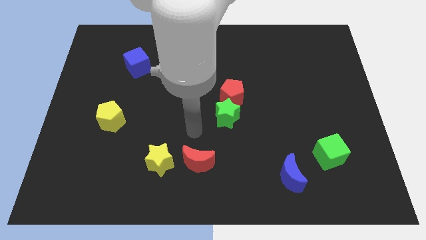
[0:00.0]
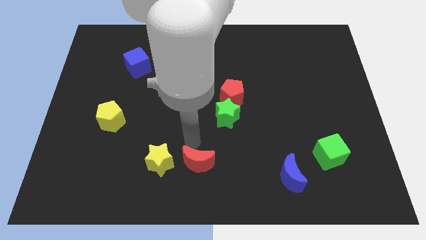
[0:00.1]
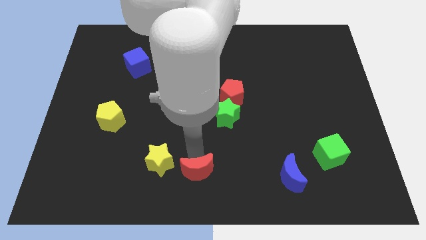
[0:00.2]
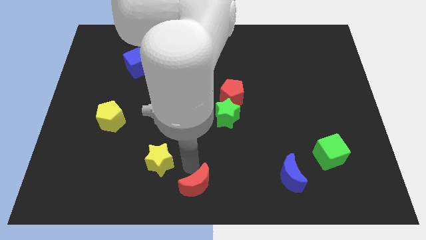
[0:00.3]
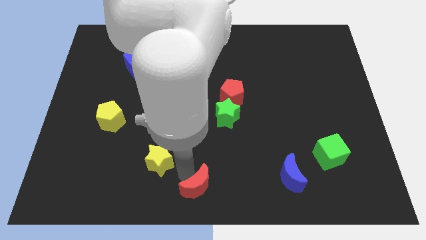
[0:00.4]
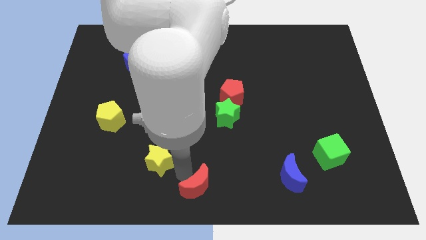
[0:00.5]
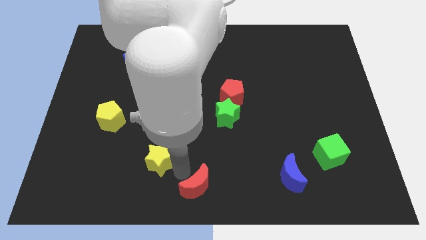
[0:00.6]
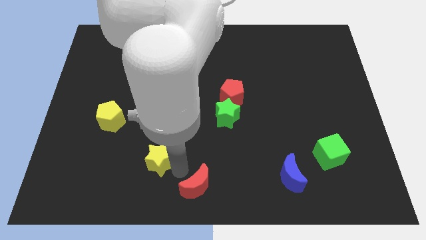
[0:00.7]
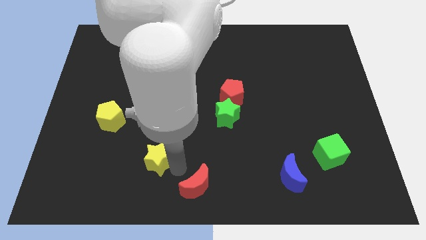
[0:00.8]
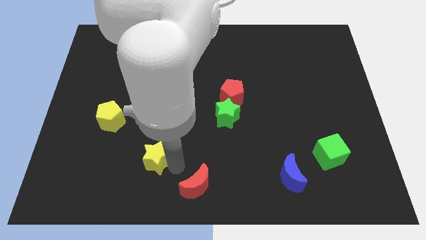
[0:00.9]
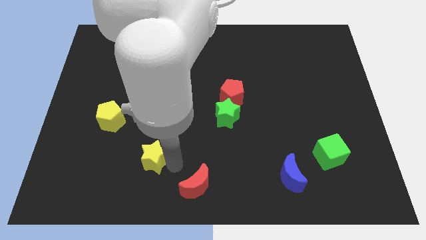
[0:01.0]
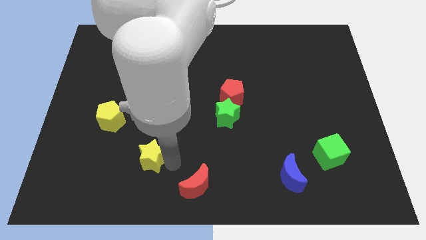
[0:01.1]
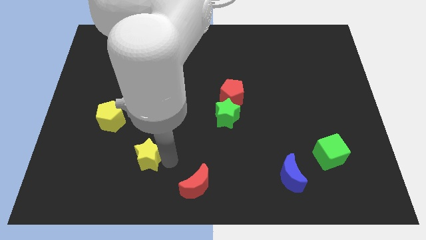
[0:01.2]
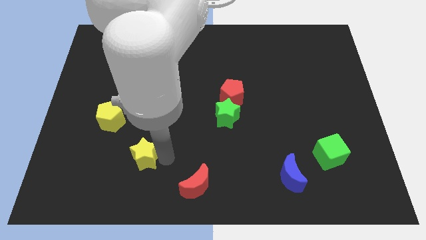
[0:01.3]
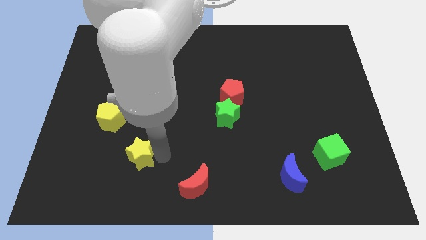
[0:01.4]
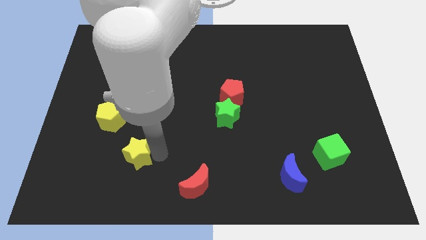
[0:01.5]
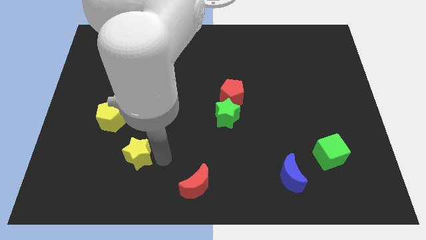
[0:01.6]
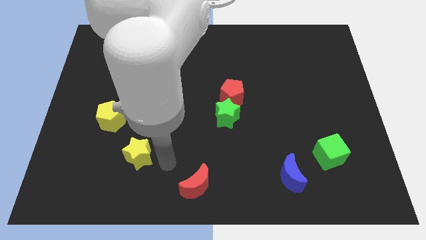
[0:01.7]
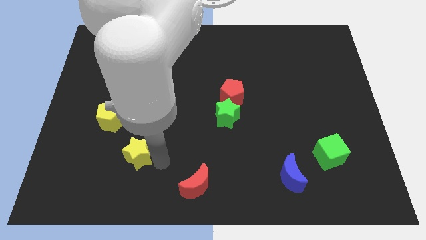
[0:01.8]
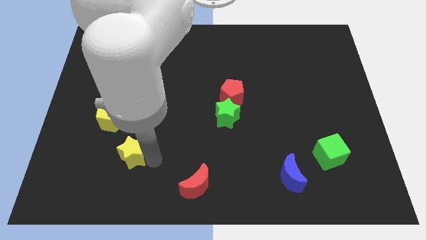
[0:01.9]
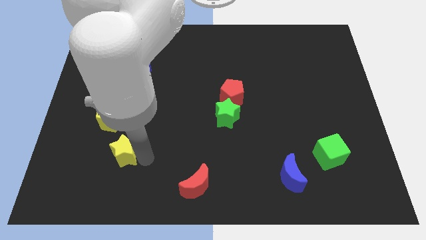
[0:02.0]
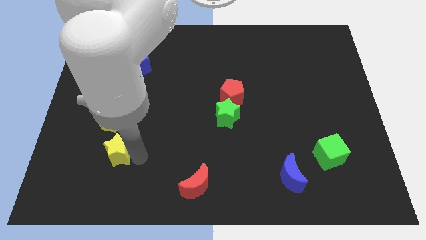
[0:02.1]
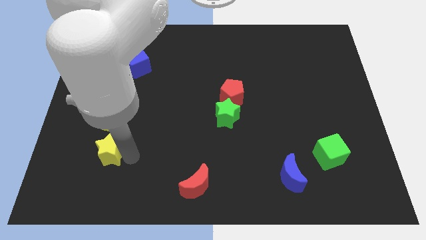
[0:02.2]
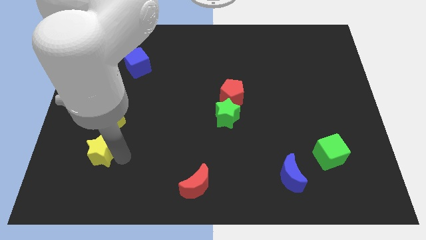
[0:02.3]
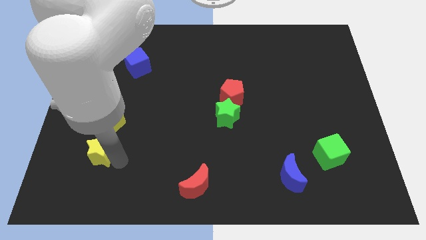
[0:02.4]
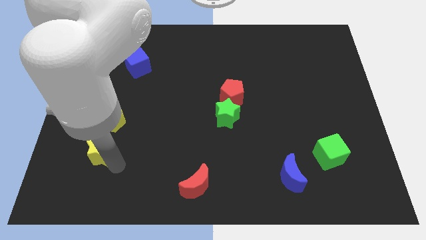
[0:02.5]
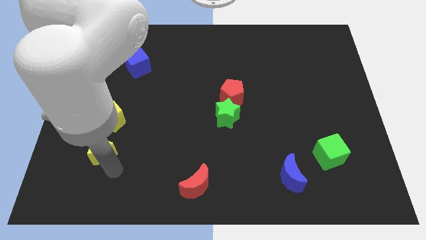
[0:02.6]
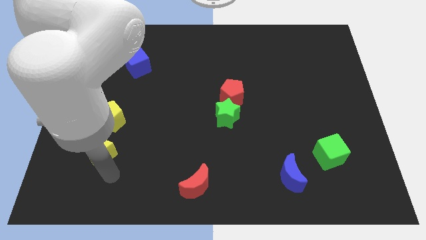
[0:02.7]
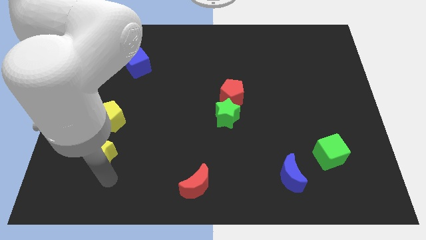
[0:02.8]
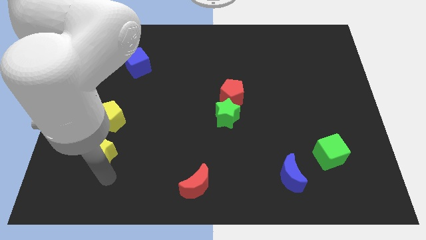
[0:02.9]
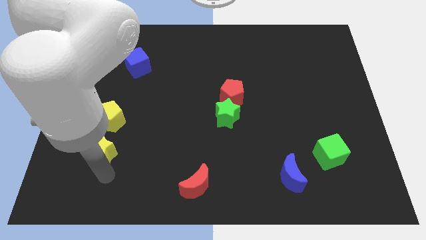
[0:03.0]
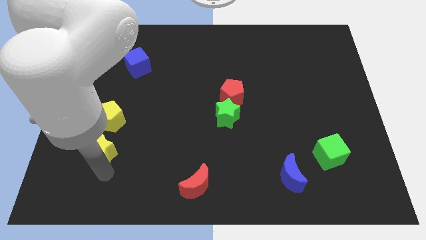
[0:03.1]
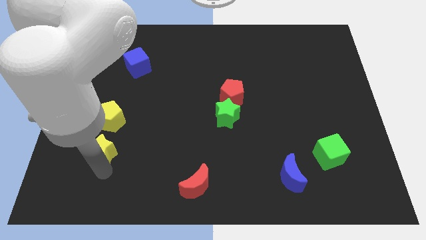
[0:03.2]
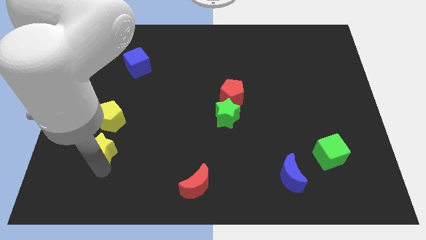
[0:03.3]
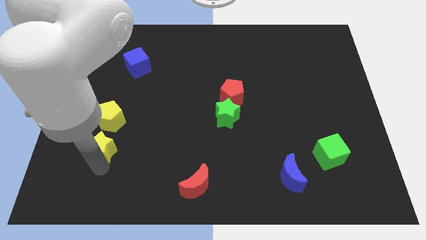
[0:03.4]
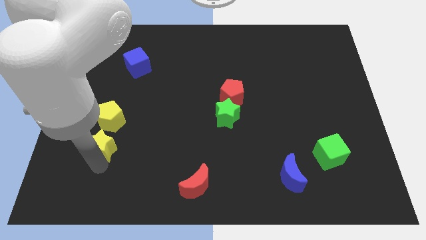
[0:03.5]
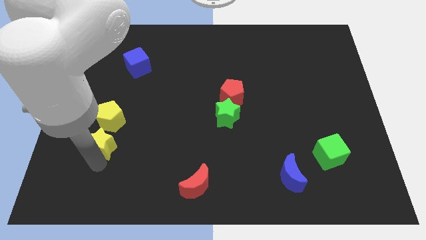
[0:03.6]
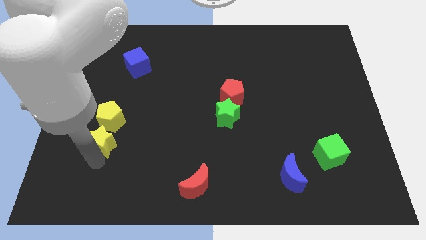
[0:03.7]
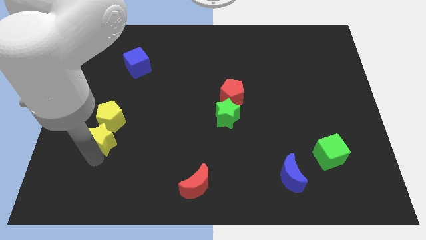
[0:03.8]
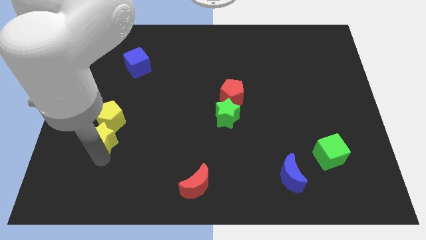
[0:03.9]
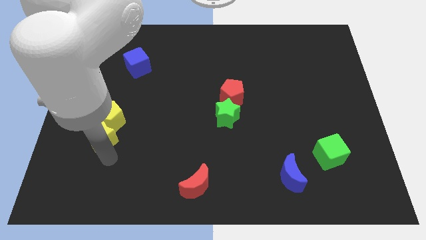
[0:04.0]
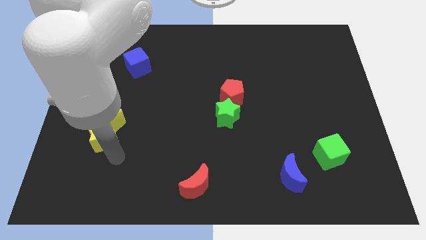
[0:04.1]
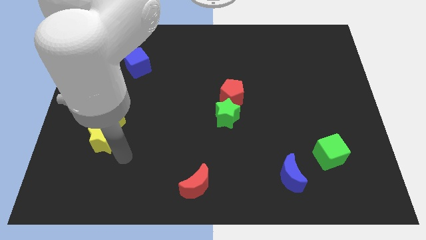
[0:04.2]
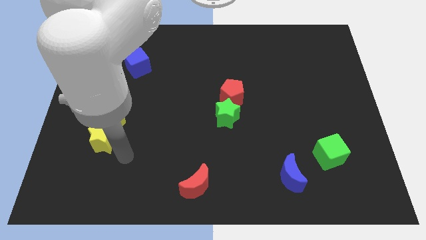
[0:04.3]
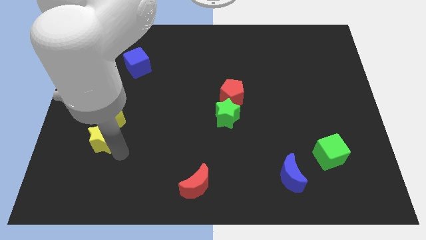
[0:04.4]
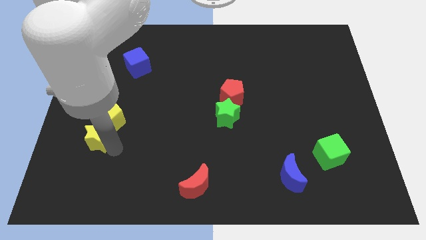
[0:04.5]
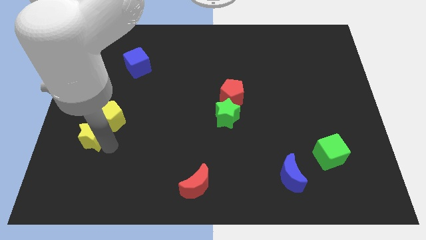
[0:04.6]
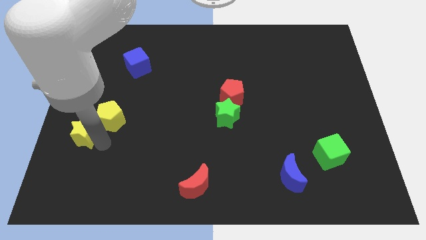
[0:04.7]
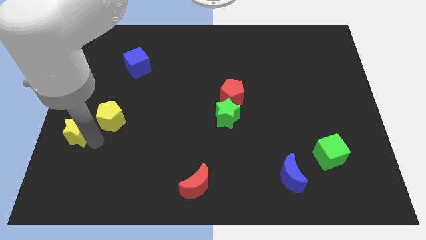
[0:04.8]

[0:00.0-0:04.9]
put the yellow star to the left side of the board

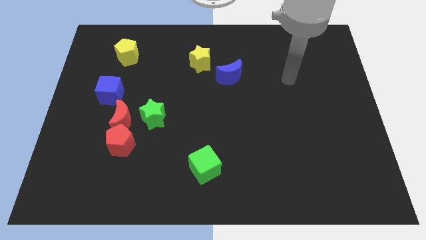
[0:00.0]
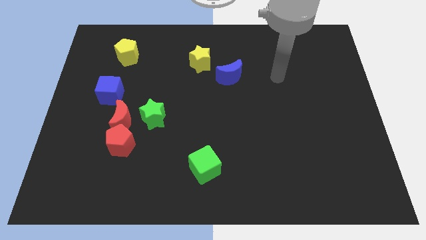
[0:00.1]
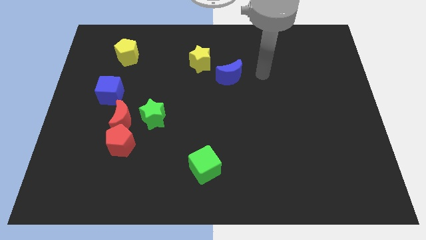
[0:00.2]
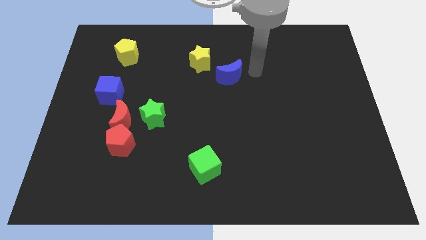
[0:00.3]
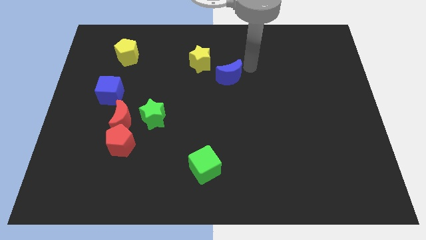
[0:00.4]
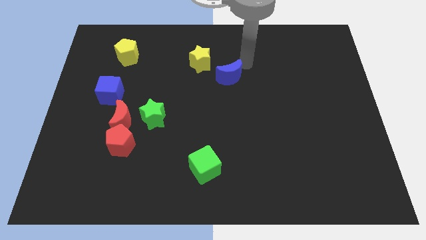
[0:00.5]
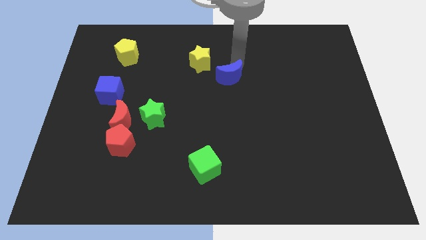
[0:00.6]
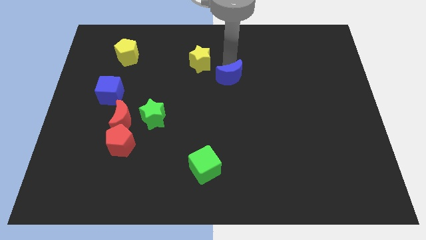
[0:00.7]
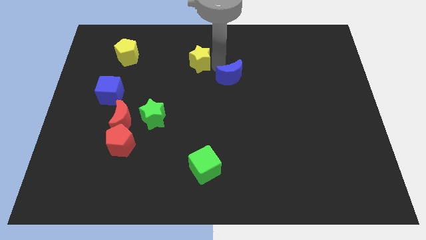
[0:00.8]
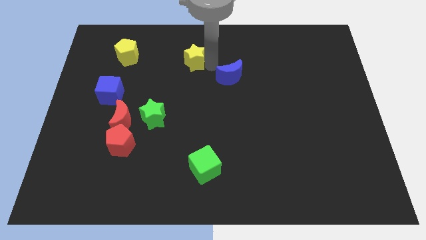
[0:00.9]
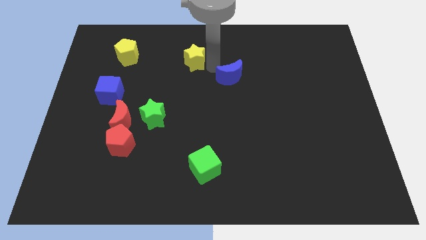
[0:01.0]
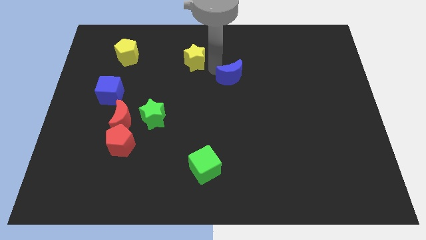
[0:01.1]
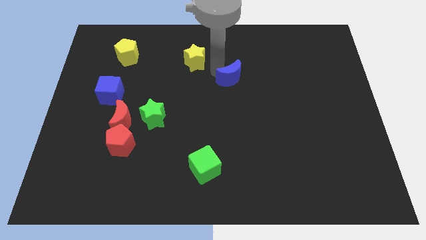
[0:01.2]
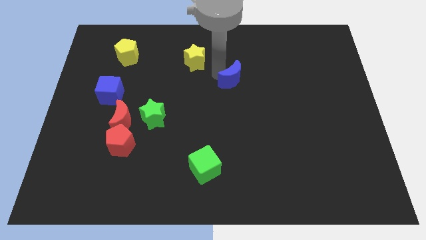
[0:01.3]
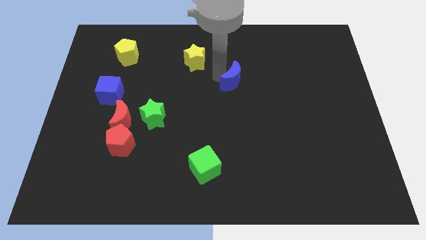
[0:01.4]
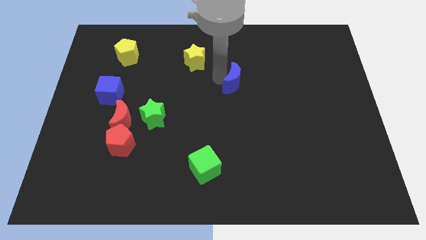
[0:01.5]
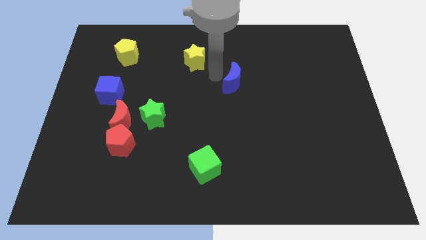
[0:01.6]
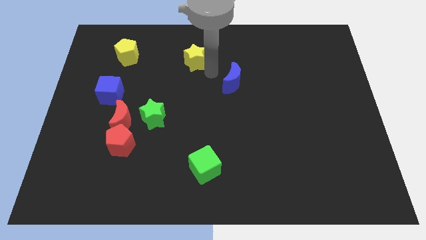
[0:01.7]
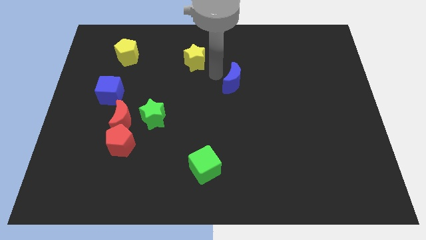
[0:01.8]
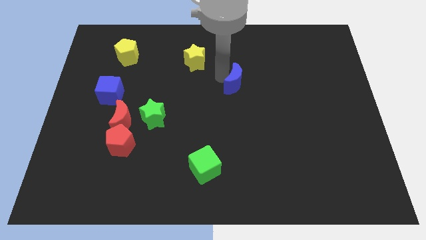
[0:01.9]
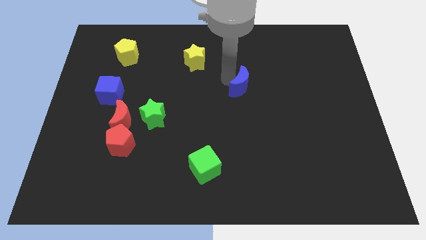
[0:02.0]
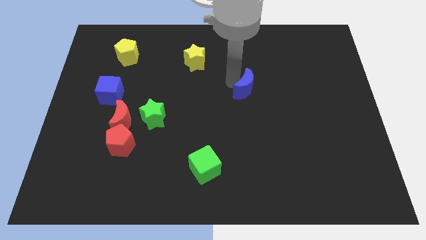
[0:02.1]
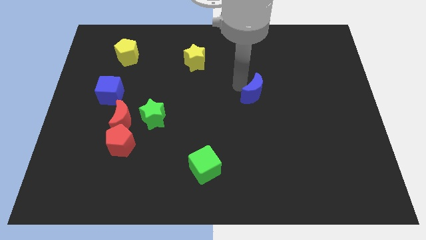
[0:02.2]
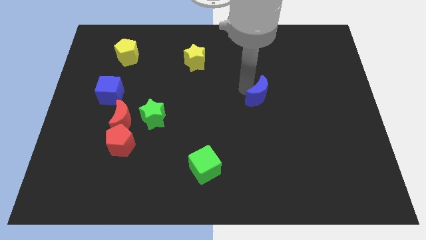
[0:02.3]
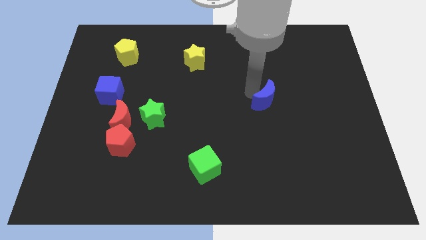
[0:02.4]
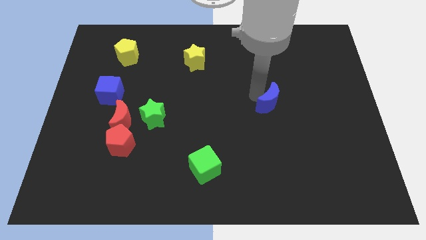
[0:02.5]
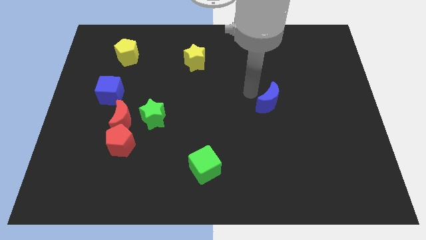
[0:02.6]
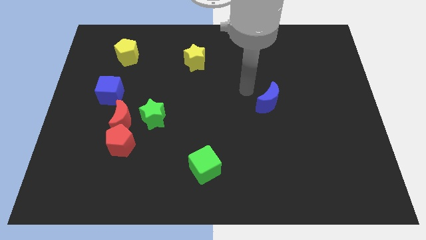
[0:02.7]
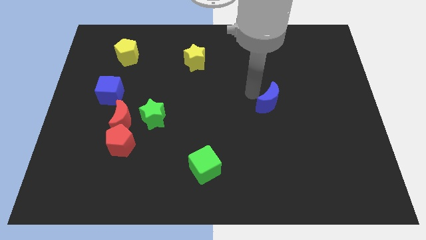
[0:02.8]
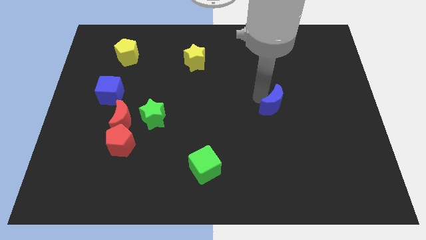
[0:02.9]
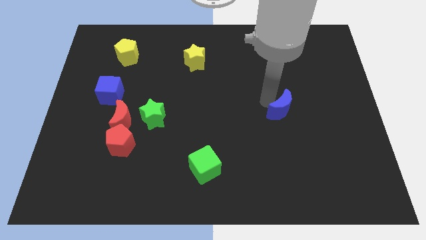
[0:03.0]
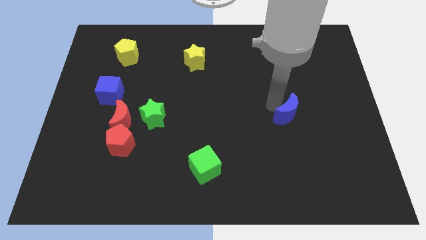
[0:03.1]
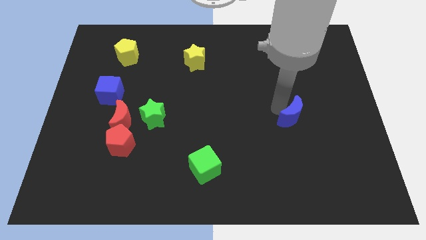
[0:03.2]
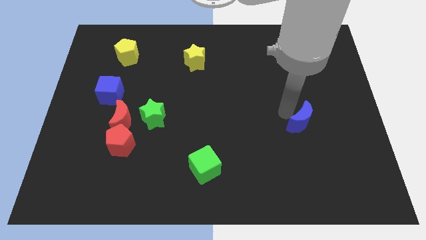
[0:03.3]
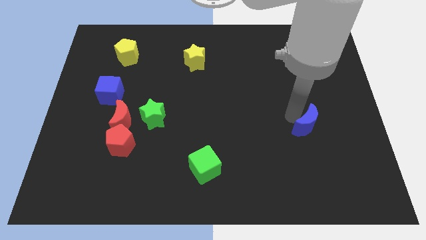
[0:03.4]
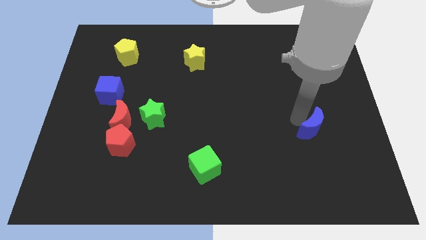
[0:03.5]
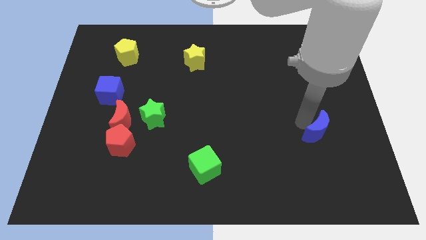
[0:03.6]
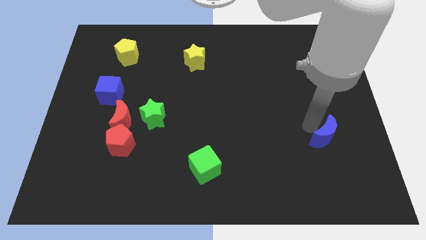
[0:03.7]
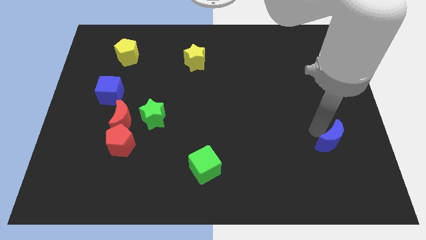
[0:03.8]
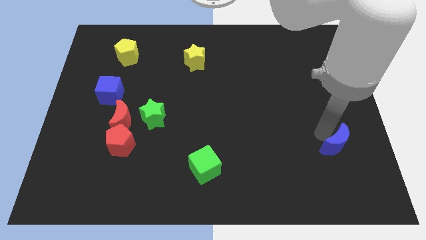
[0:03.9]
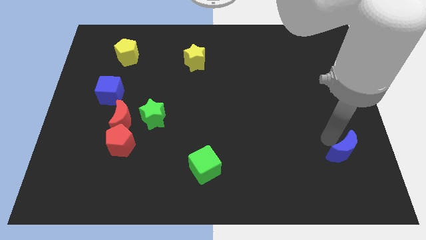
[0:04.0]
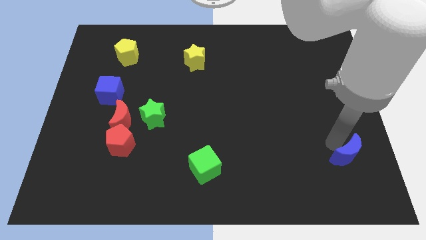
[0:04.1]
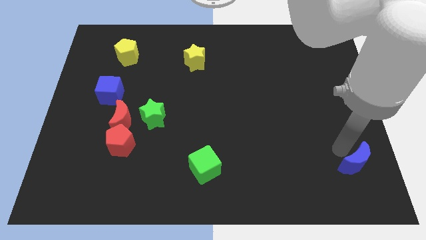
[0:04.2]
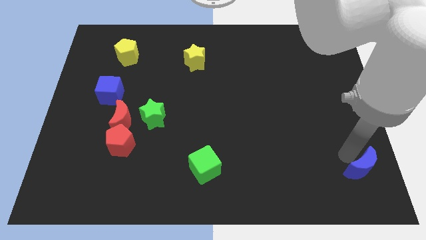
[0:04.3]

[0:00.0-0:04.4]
slide the blue moon to the lower right corner
